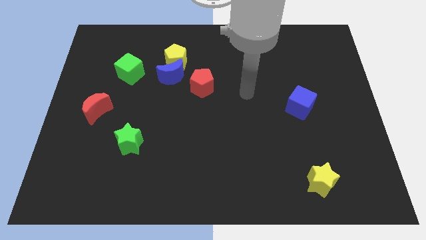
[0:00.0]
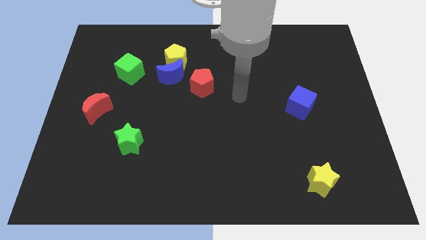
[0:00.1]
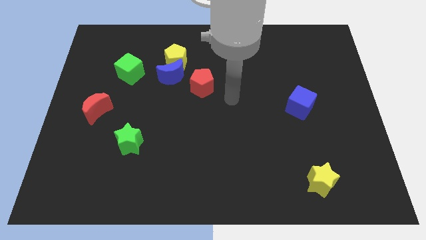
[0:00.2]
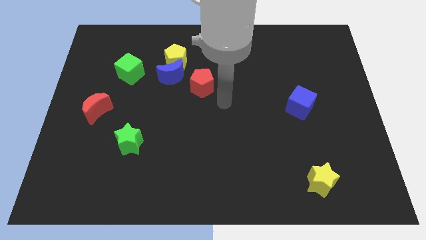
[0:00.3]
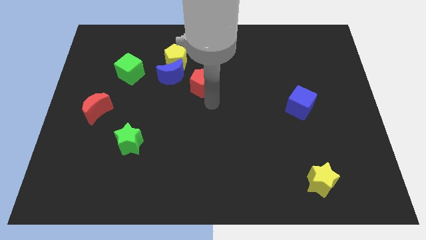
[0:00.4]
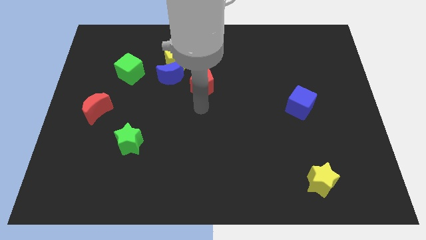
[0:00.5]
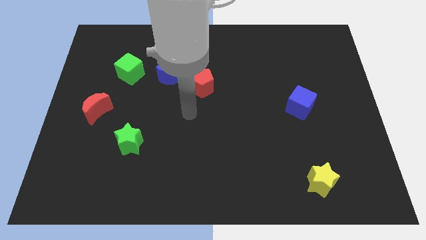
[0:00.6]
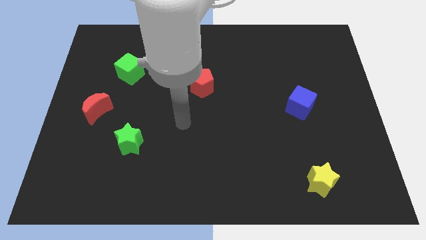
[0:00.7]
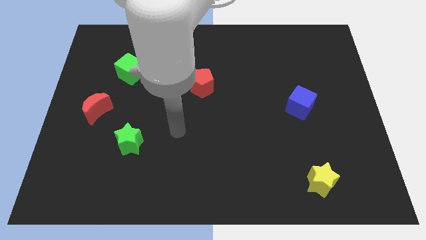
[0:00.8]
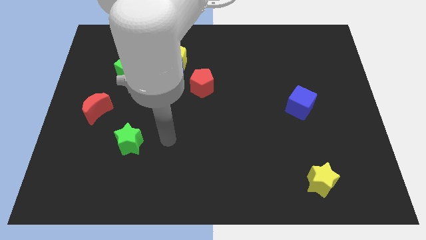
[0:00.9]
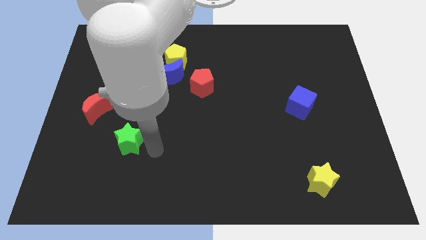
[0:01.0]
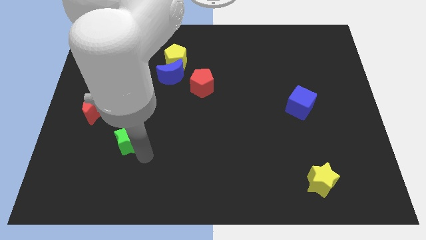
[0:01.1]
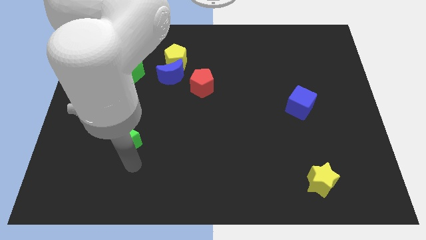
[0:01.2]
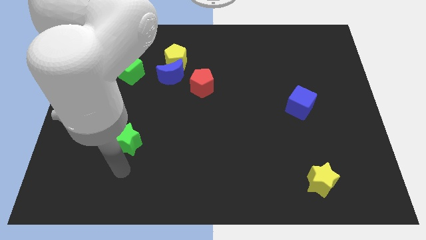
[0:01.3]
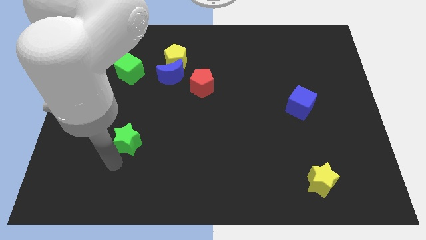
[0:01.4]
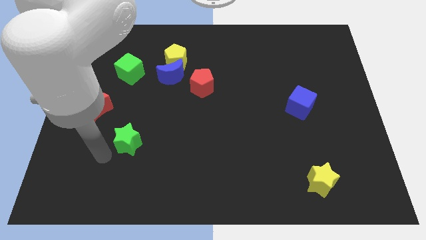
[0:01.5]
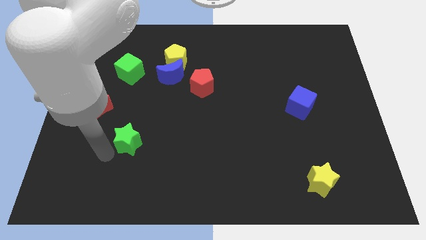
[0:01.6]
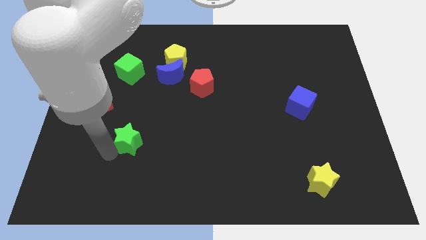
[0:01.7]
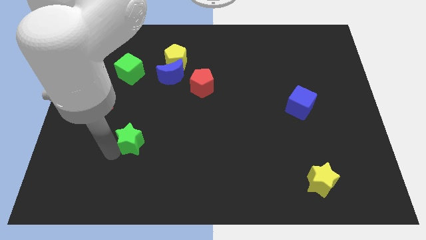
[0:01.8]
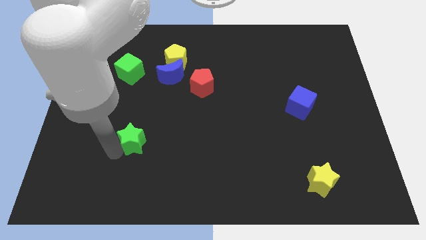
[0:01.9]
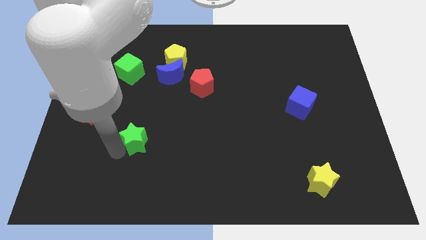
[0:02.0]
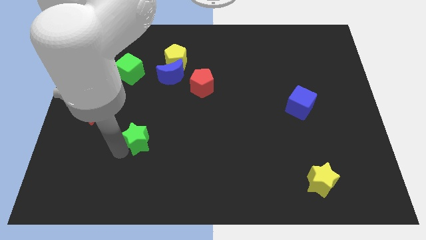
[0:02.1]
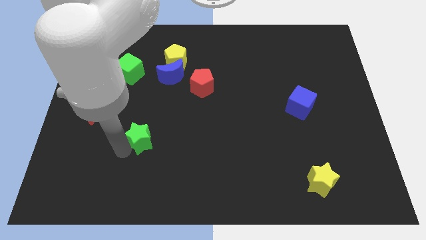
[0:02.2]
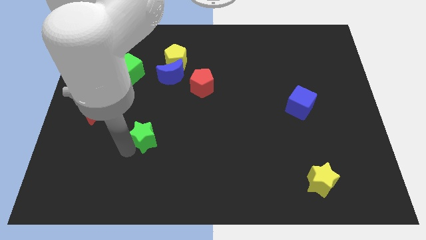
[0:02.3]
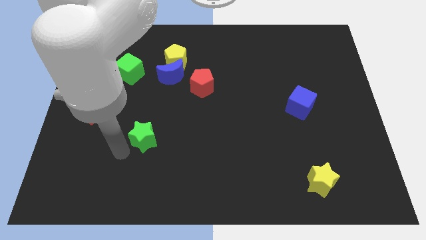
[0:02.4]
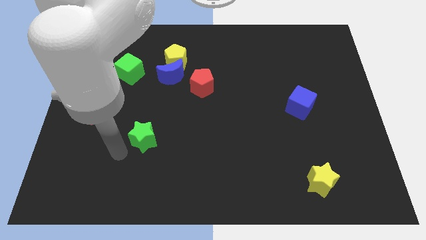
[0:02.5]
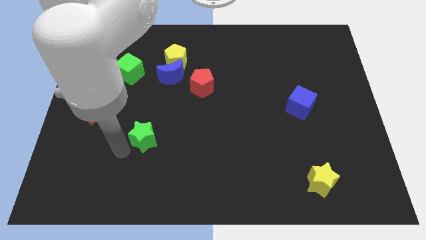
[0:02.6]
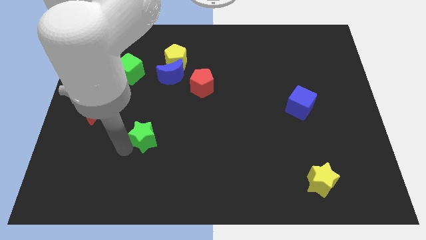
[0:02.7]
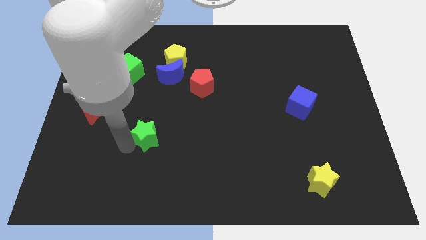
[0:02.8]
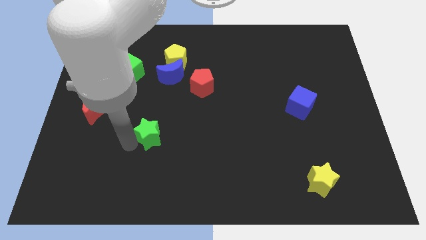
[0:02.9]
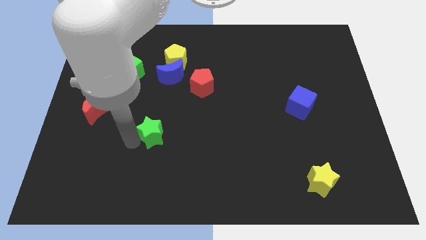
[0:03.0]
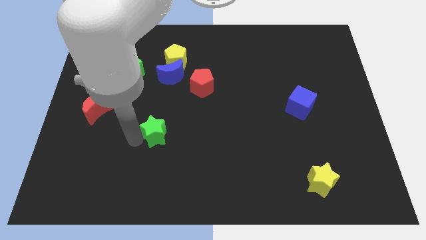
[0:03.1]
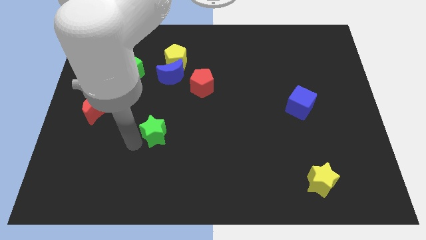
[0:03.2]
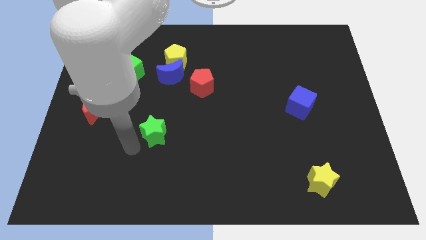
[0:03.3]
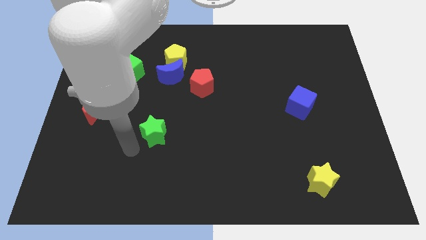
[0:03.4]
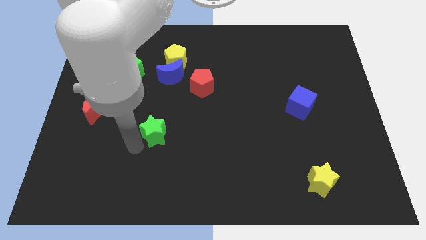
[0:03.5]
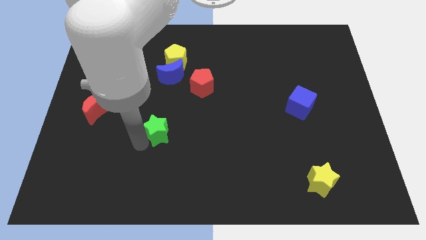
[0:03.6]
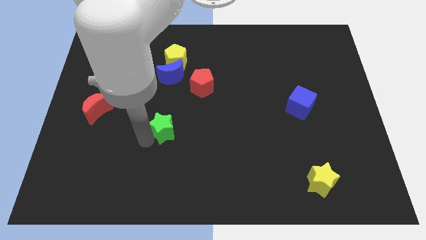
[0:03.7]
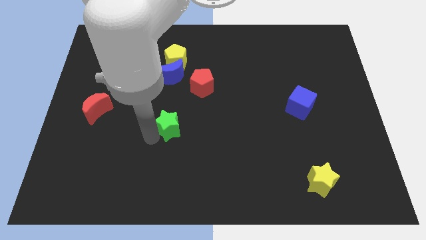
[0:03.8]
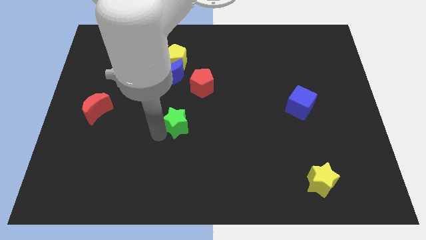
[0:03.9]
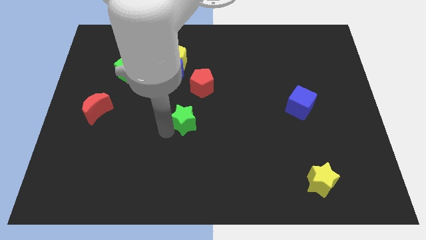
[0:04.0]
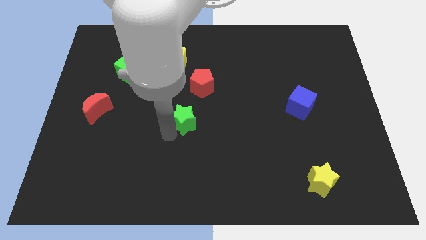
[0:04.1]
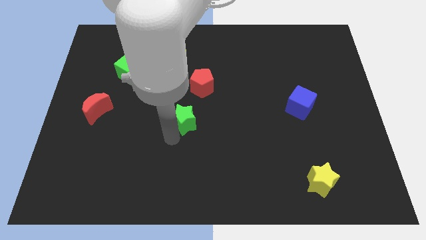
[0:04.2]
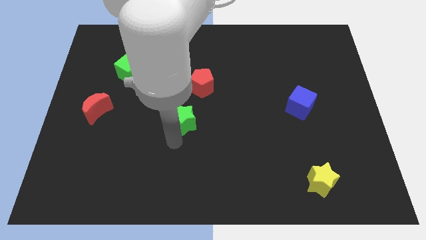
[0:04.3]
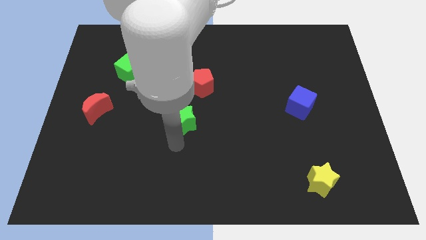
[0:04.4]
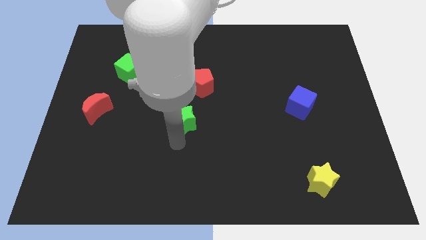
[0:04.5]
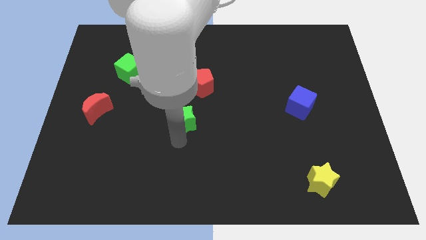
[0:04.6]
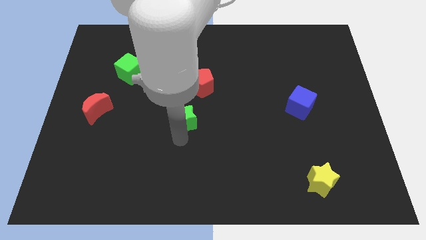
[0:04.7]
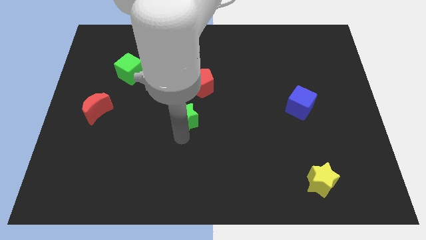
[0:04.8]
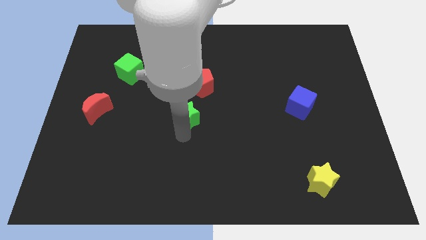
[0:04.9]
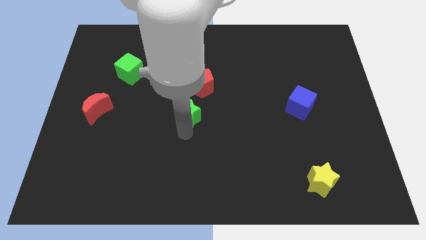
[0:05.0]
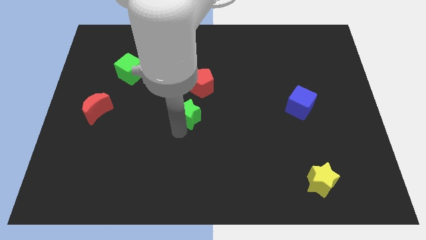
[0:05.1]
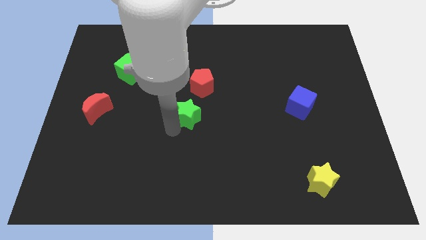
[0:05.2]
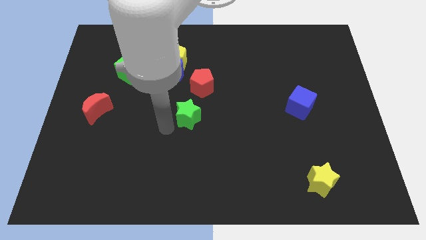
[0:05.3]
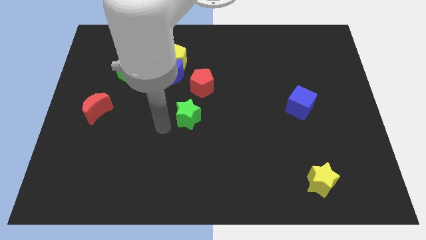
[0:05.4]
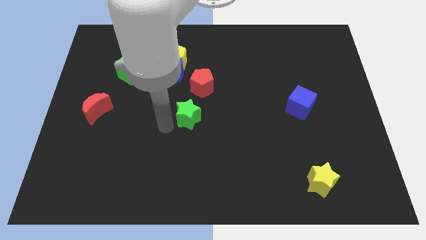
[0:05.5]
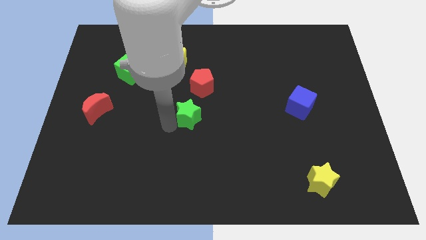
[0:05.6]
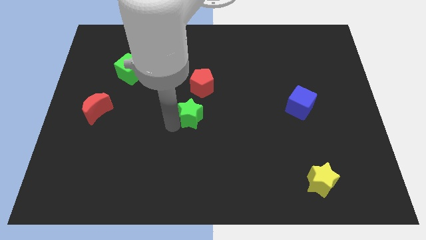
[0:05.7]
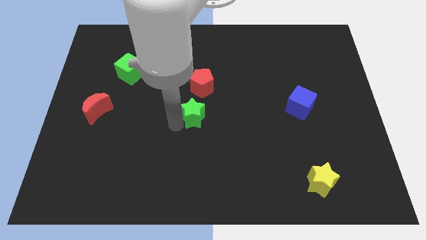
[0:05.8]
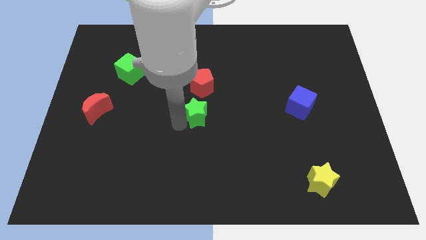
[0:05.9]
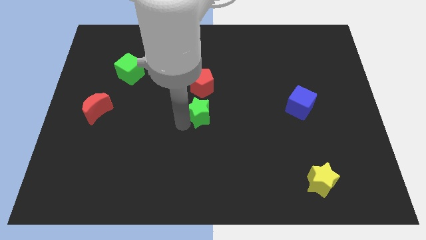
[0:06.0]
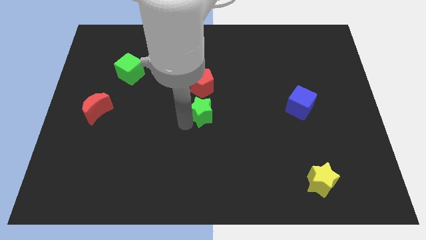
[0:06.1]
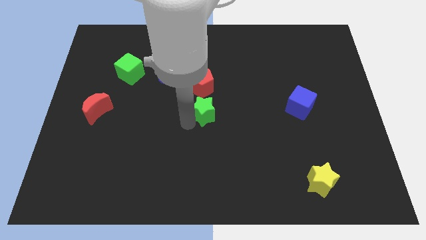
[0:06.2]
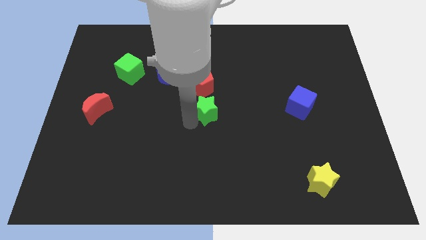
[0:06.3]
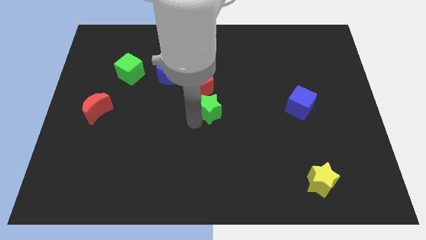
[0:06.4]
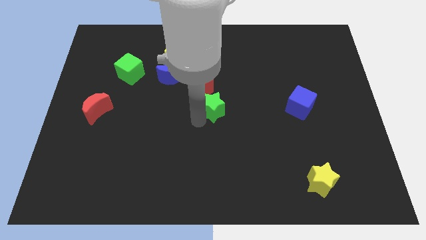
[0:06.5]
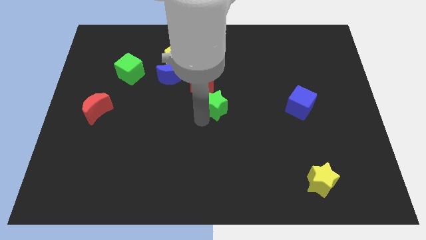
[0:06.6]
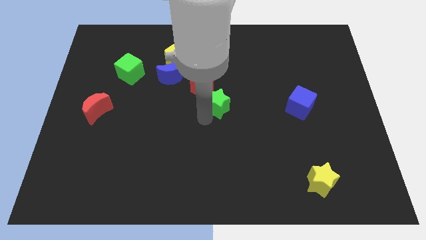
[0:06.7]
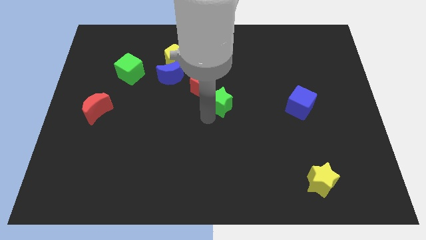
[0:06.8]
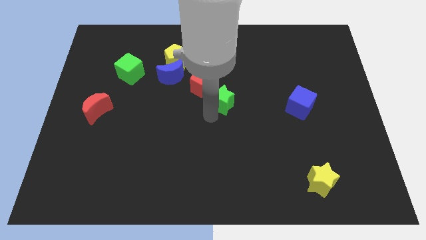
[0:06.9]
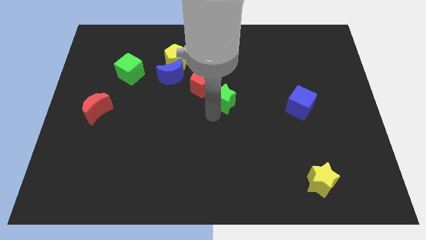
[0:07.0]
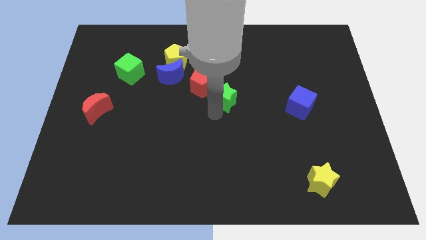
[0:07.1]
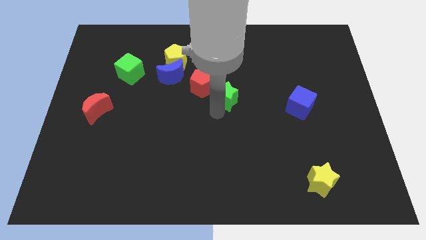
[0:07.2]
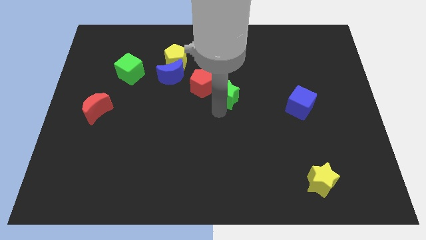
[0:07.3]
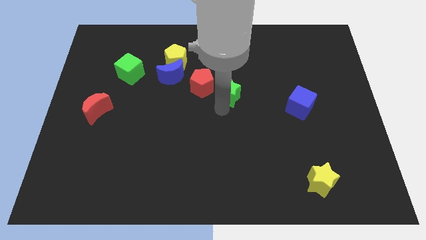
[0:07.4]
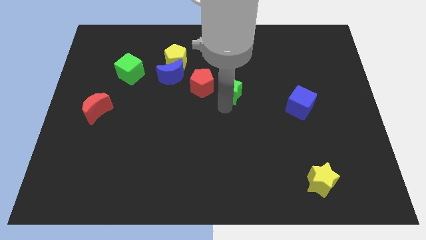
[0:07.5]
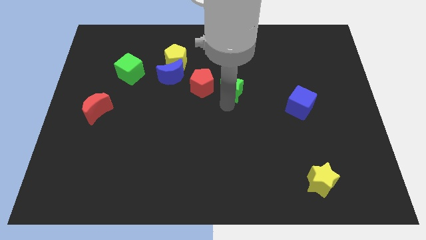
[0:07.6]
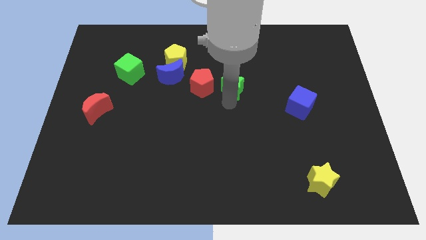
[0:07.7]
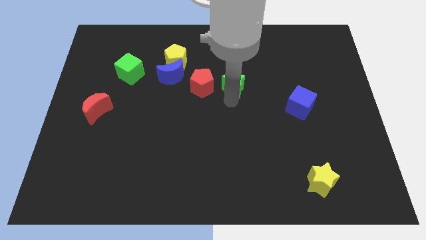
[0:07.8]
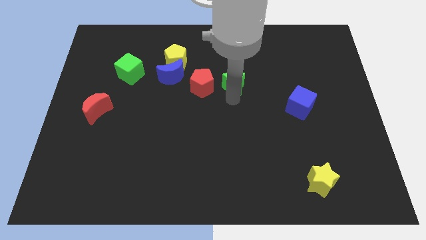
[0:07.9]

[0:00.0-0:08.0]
put the green star diagonally up and to the right of the red pentagon
